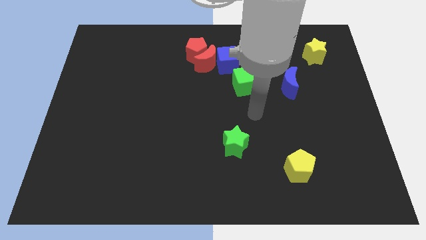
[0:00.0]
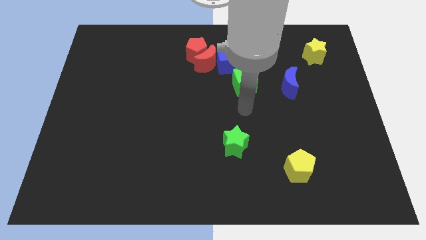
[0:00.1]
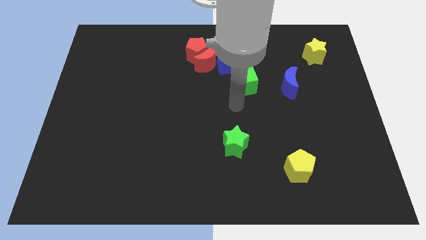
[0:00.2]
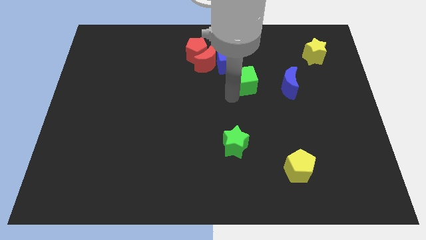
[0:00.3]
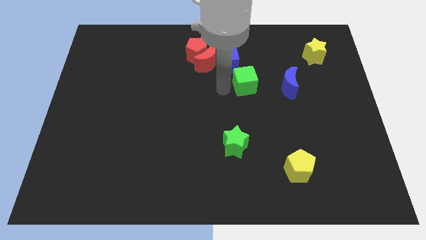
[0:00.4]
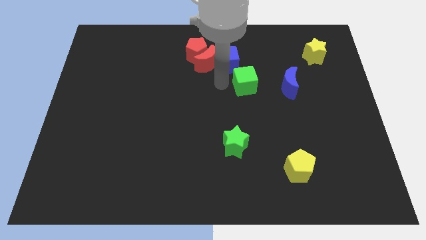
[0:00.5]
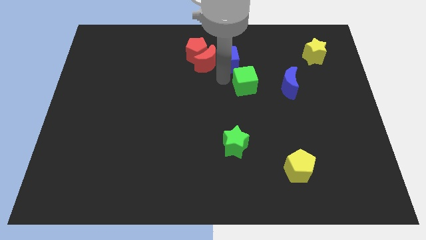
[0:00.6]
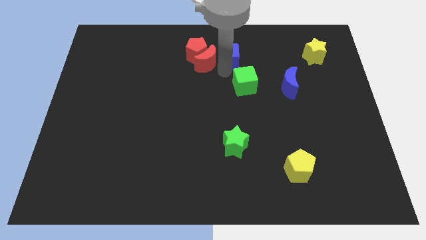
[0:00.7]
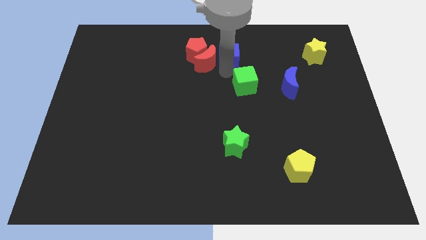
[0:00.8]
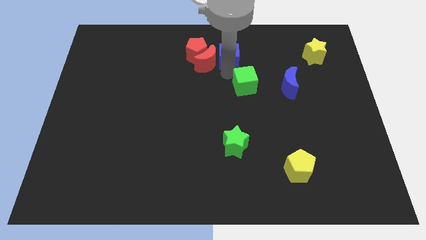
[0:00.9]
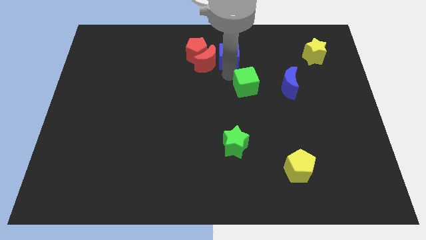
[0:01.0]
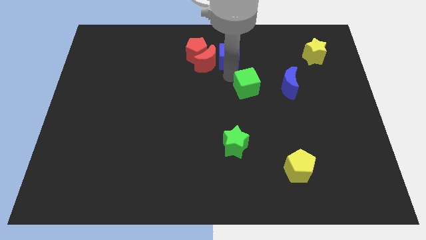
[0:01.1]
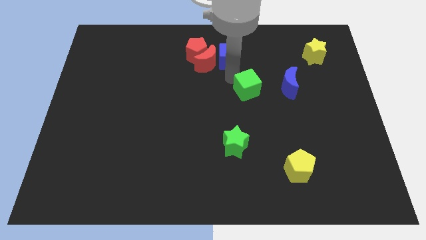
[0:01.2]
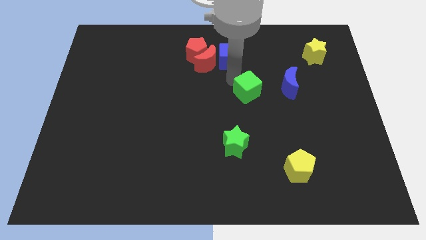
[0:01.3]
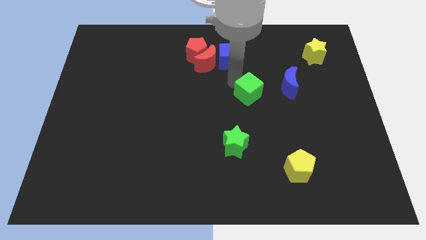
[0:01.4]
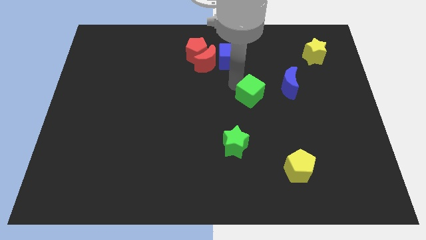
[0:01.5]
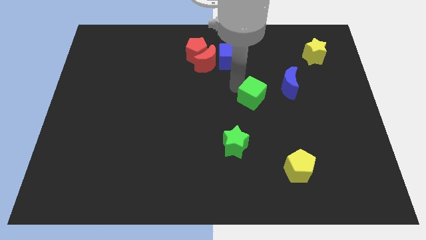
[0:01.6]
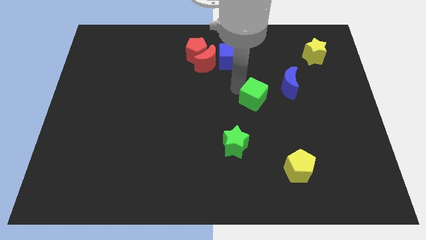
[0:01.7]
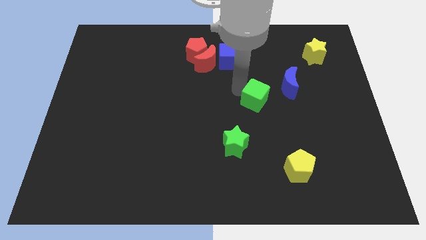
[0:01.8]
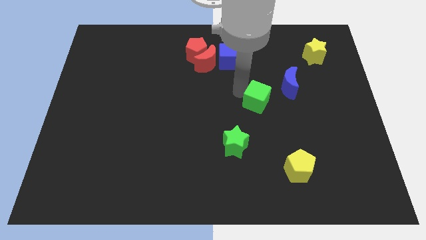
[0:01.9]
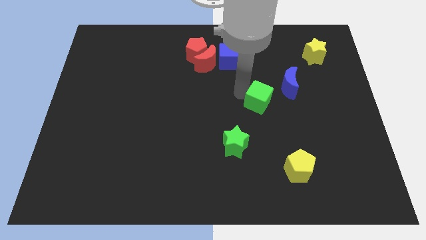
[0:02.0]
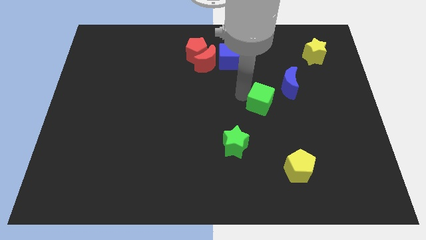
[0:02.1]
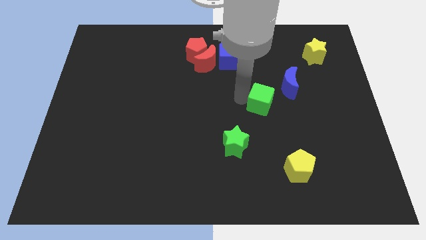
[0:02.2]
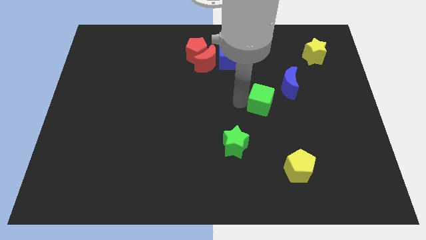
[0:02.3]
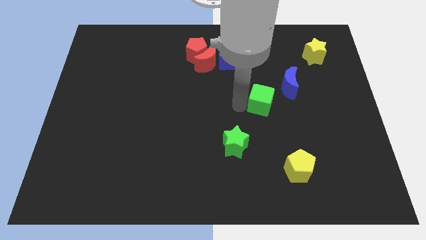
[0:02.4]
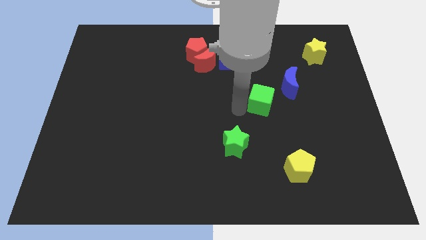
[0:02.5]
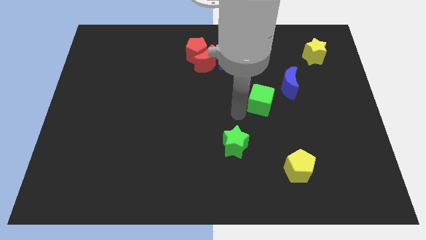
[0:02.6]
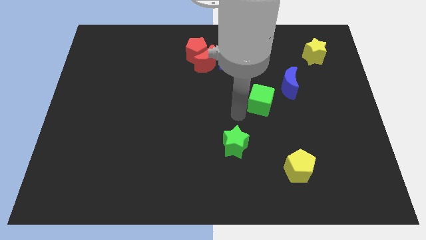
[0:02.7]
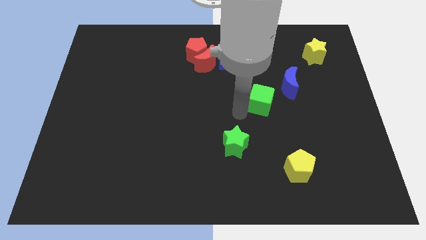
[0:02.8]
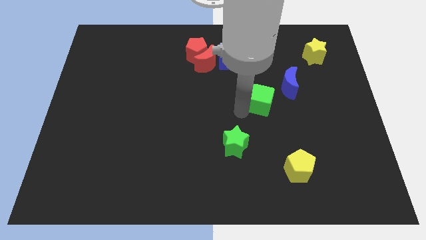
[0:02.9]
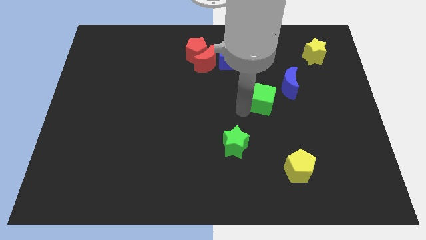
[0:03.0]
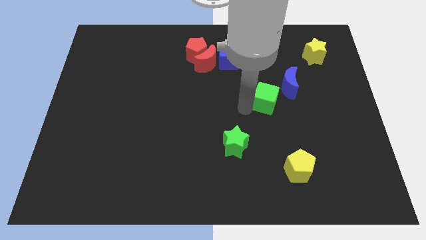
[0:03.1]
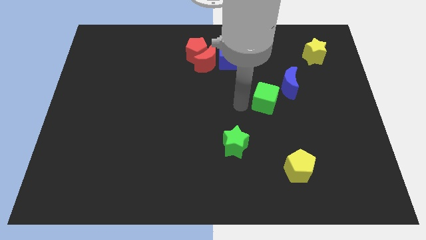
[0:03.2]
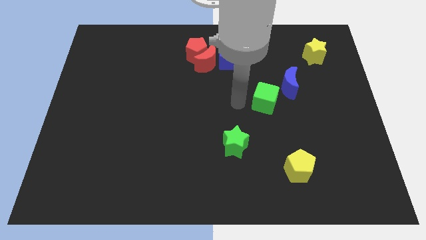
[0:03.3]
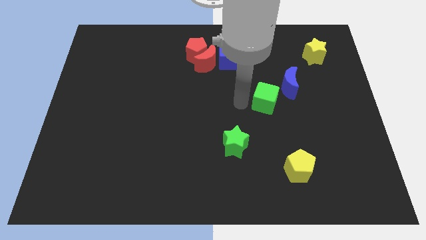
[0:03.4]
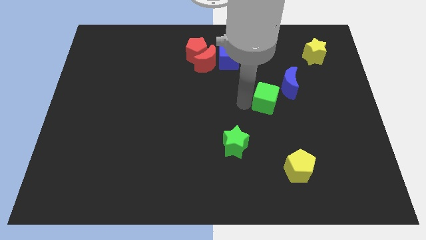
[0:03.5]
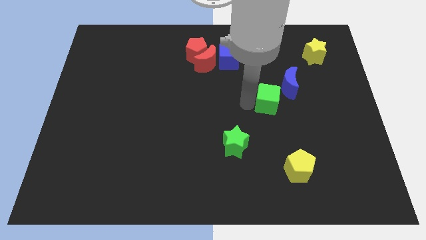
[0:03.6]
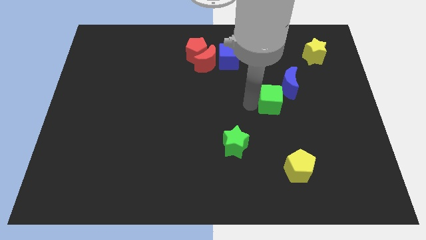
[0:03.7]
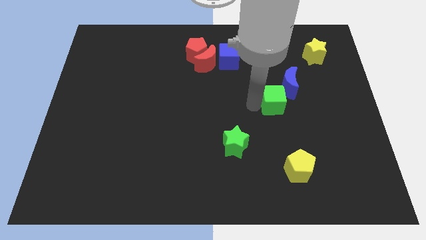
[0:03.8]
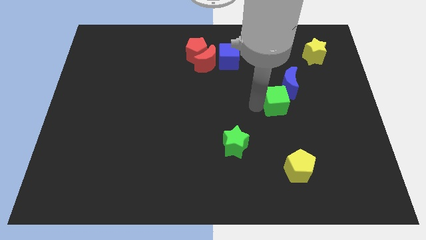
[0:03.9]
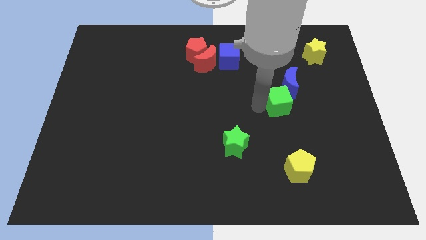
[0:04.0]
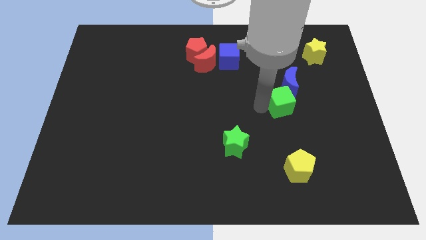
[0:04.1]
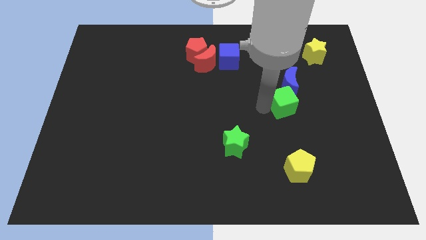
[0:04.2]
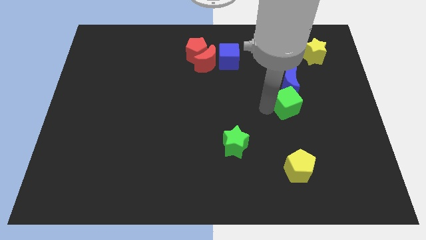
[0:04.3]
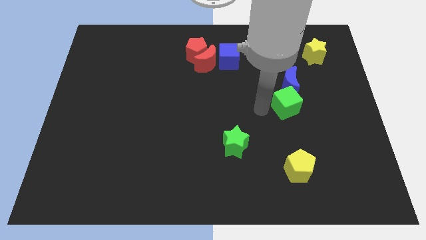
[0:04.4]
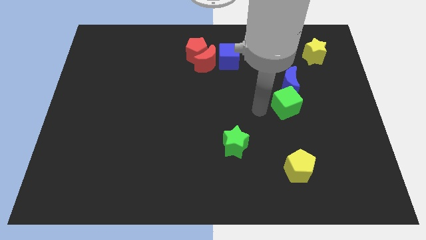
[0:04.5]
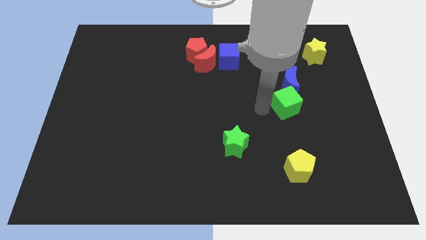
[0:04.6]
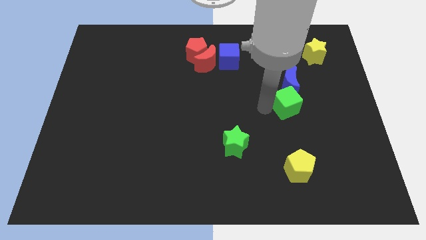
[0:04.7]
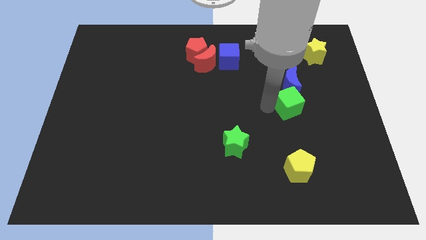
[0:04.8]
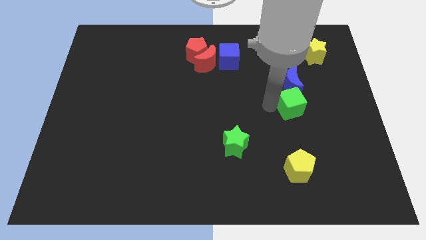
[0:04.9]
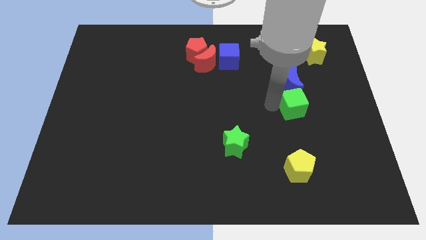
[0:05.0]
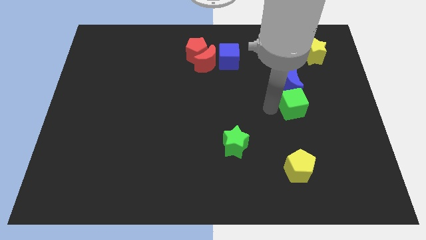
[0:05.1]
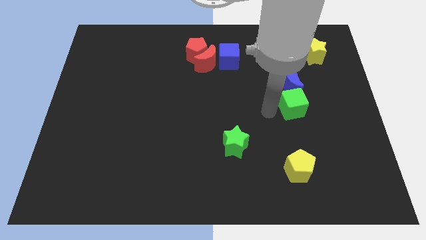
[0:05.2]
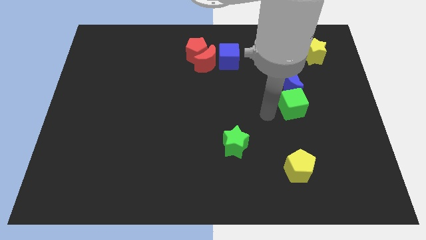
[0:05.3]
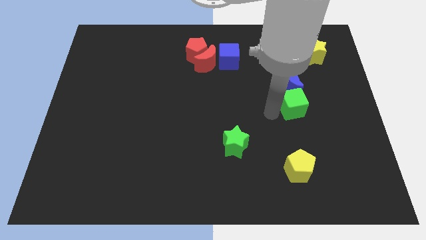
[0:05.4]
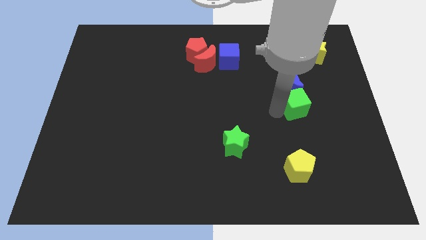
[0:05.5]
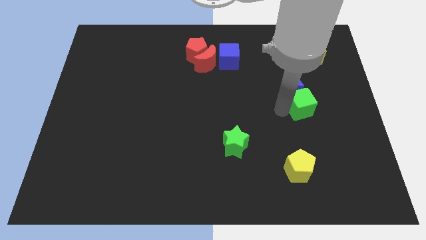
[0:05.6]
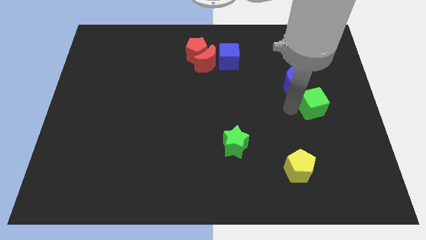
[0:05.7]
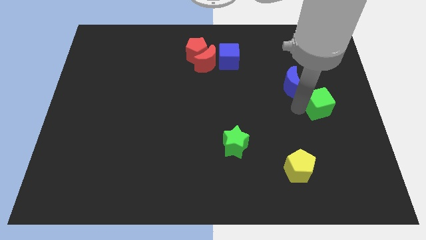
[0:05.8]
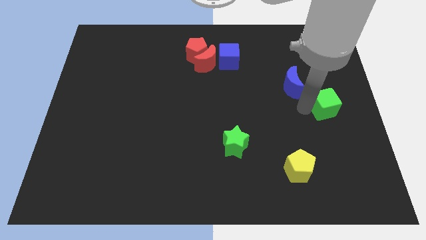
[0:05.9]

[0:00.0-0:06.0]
put the green cube to the right side of the board

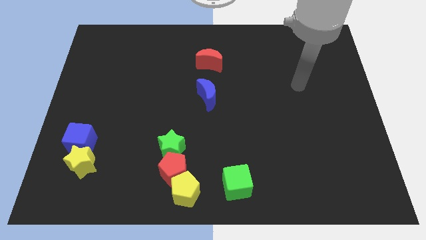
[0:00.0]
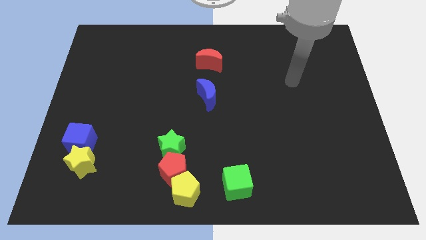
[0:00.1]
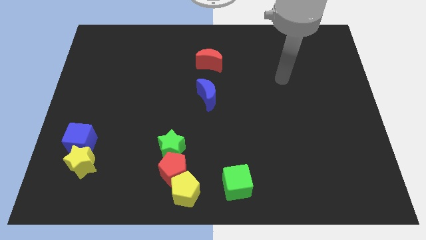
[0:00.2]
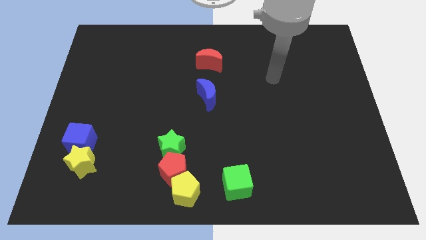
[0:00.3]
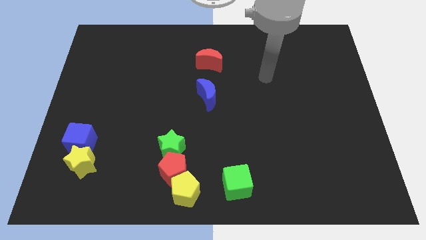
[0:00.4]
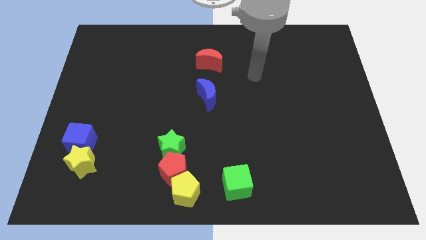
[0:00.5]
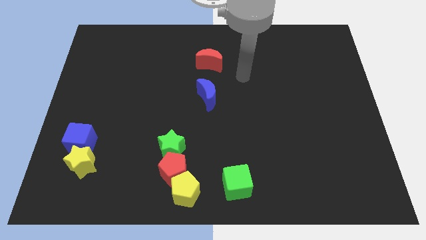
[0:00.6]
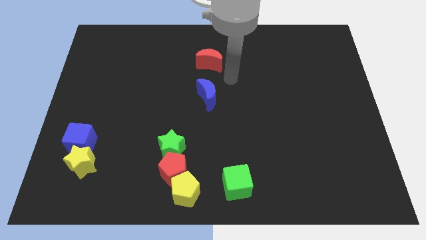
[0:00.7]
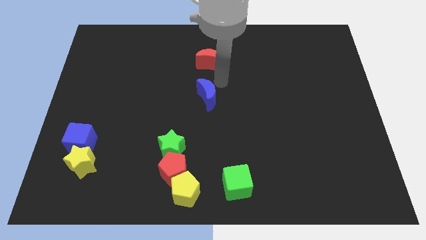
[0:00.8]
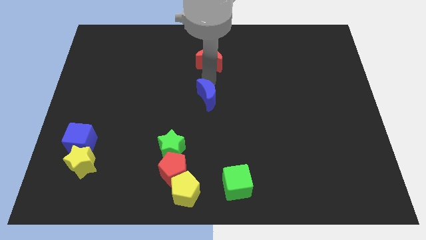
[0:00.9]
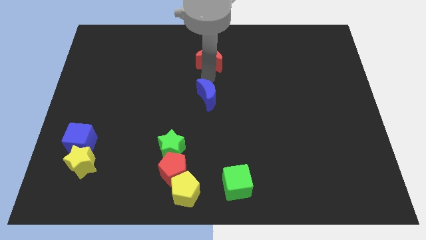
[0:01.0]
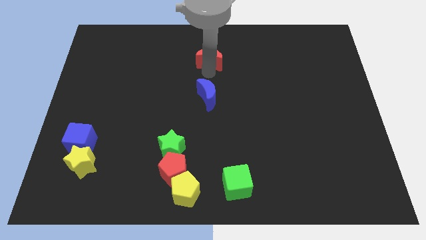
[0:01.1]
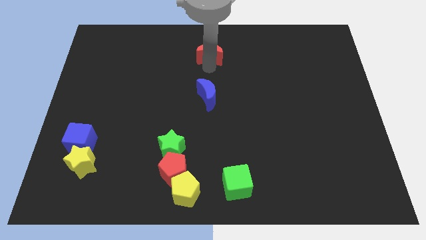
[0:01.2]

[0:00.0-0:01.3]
slide the red moon to the towards your base
